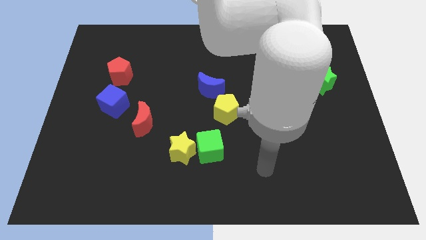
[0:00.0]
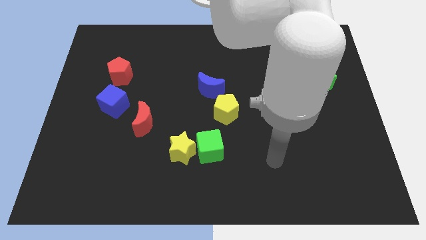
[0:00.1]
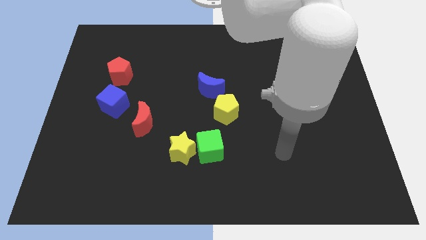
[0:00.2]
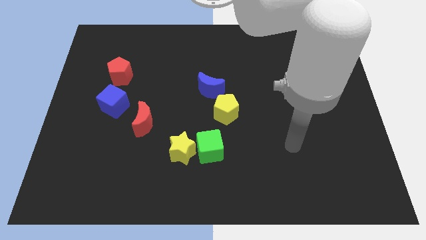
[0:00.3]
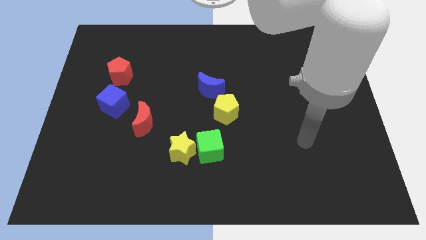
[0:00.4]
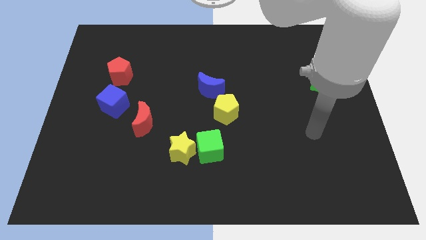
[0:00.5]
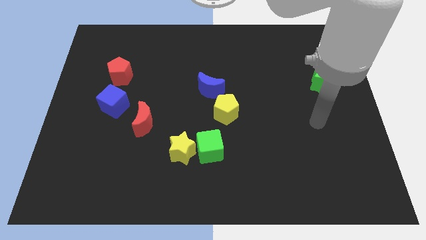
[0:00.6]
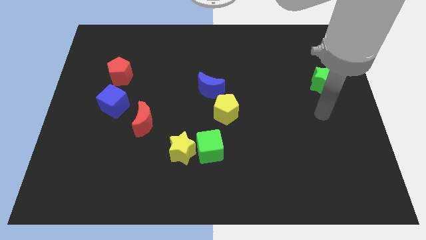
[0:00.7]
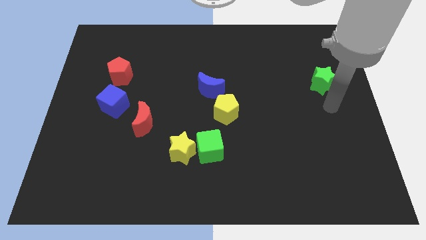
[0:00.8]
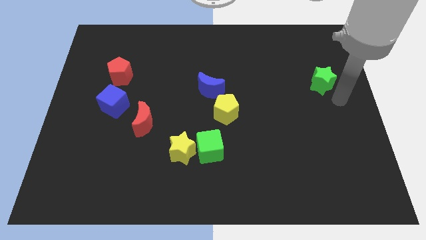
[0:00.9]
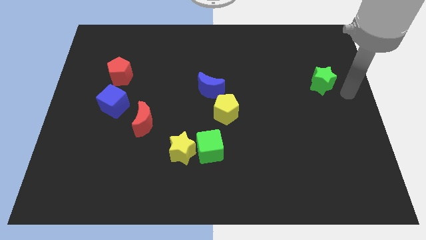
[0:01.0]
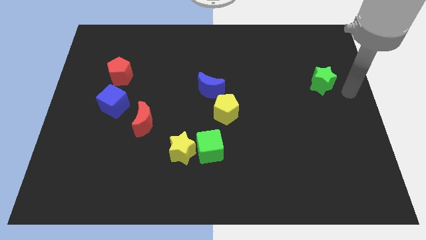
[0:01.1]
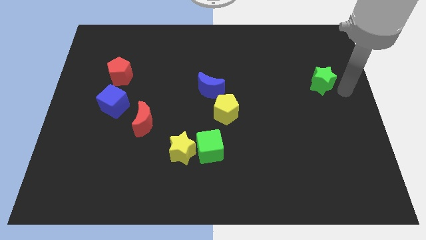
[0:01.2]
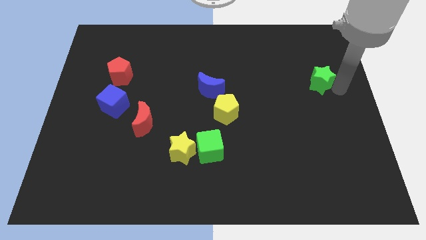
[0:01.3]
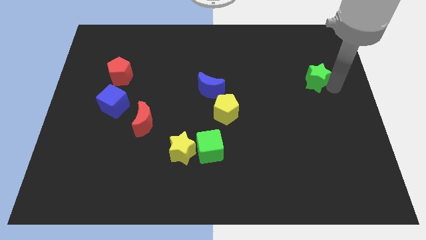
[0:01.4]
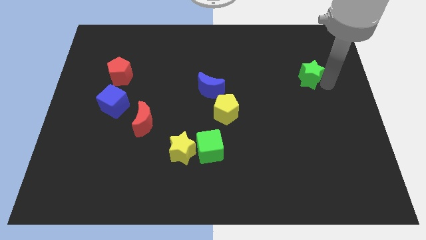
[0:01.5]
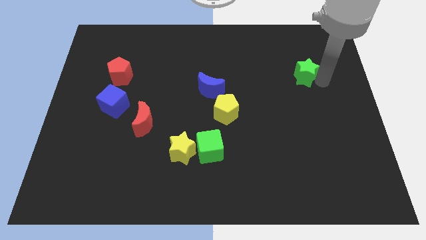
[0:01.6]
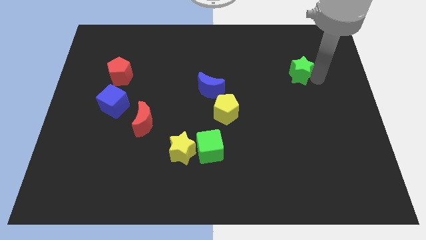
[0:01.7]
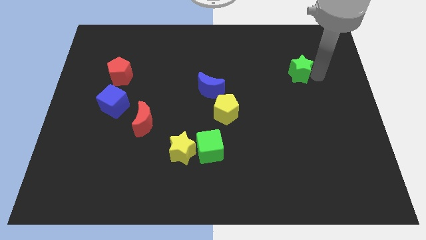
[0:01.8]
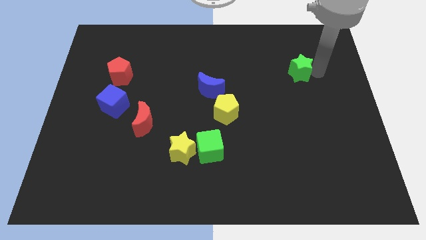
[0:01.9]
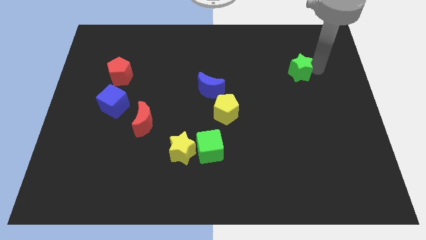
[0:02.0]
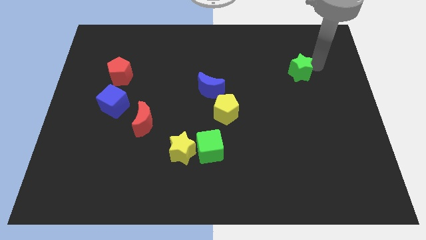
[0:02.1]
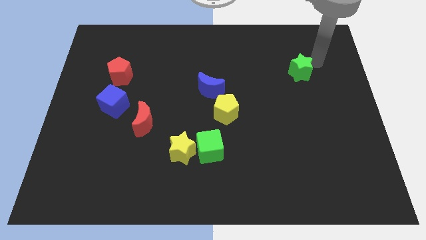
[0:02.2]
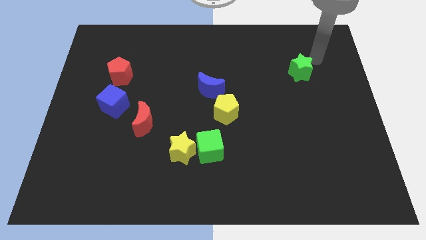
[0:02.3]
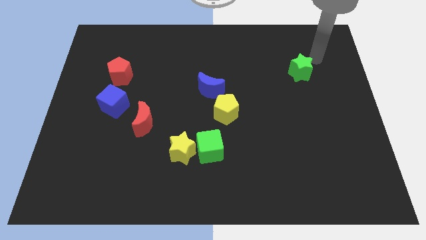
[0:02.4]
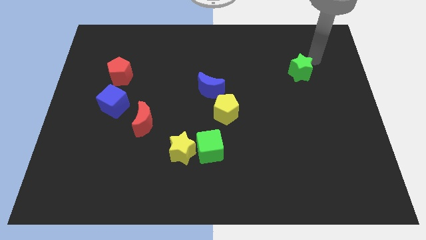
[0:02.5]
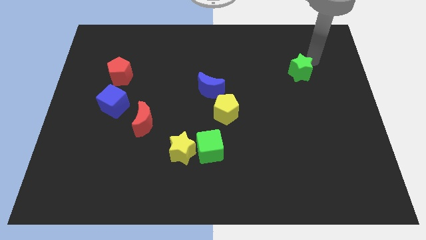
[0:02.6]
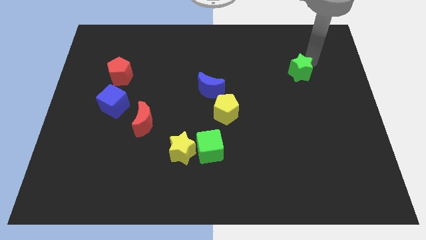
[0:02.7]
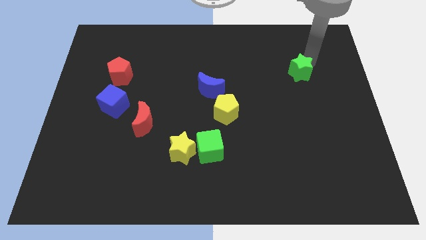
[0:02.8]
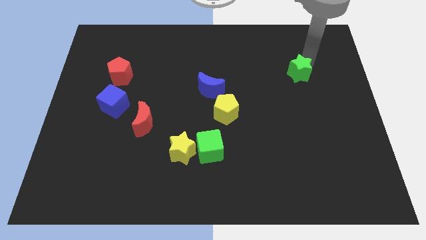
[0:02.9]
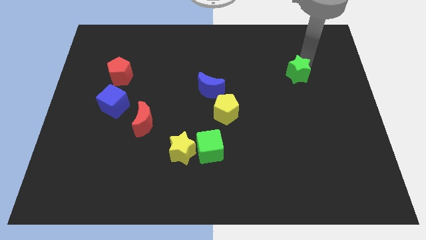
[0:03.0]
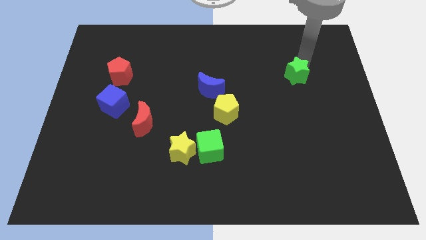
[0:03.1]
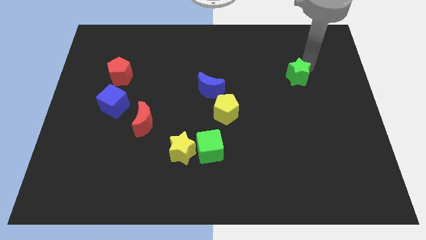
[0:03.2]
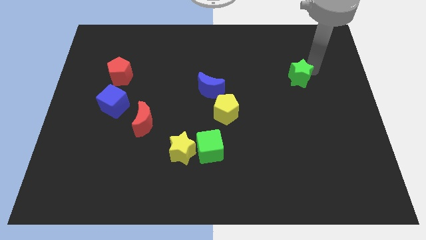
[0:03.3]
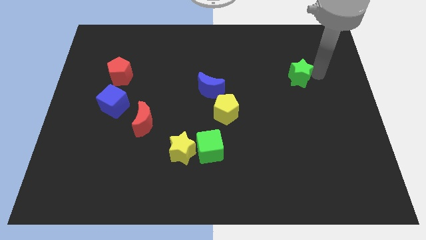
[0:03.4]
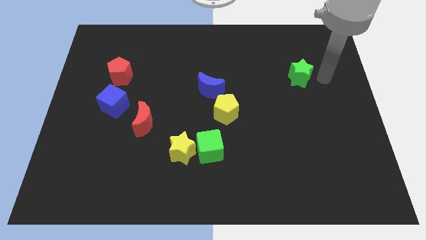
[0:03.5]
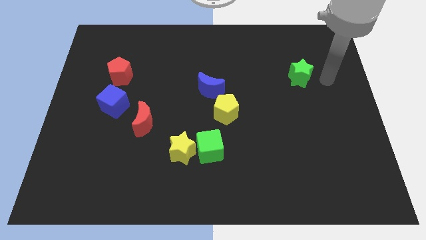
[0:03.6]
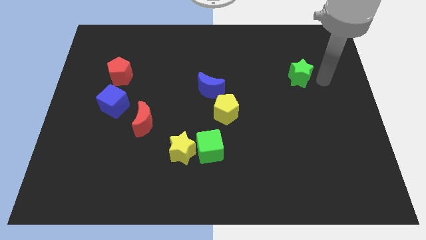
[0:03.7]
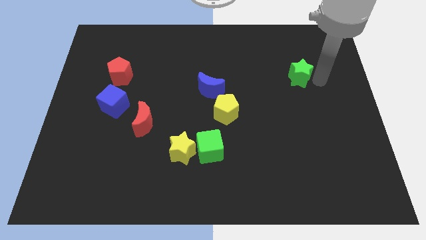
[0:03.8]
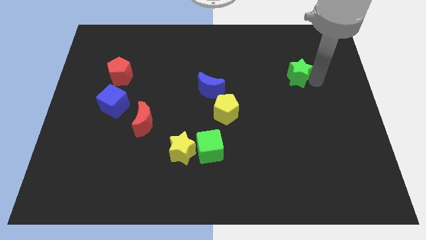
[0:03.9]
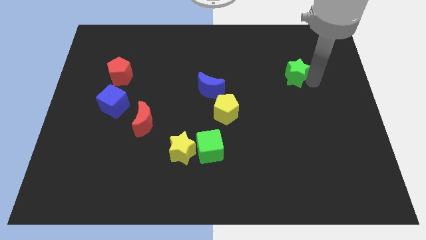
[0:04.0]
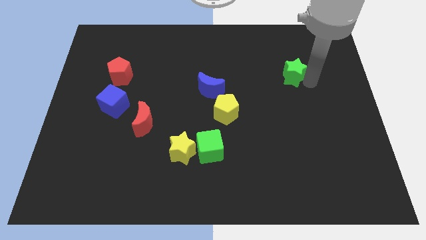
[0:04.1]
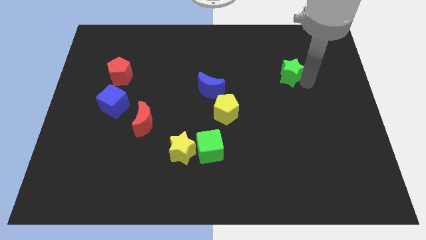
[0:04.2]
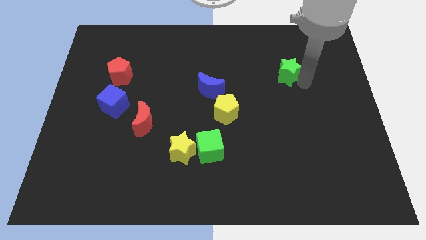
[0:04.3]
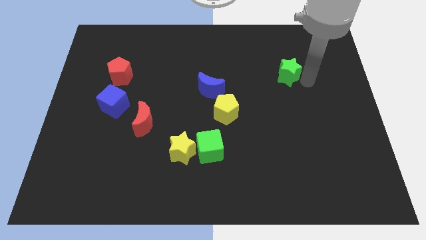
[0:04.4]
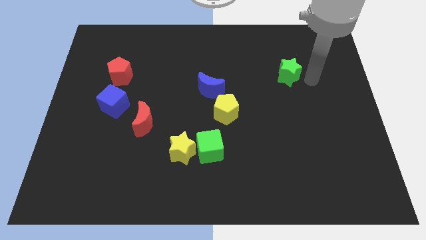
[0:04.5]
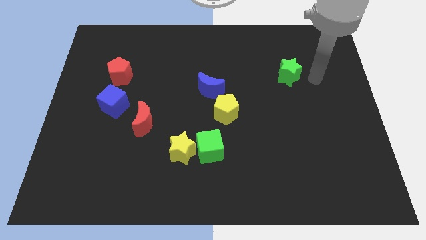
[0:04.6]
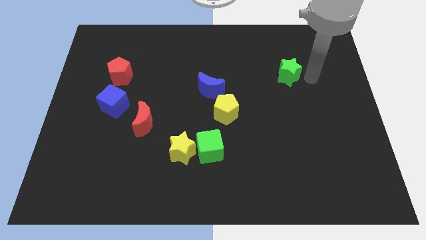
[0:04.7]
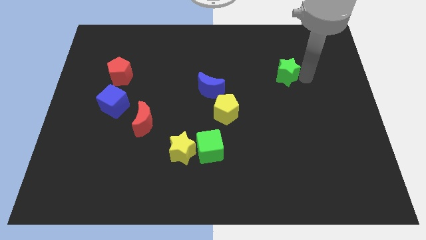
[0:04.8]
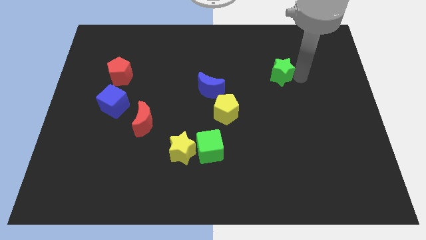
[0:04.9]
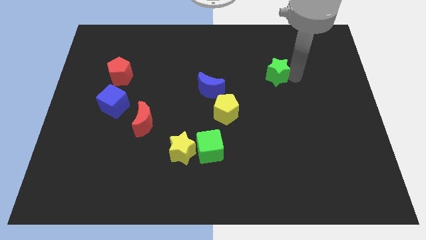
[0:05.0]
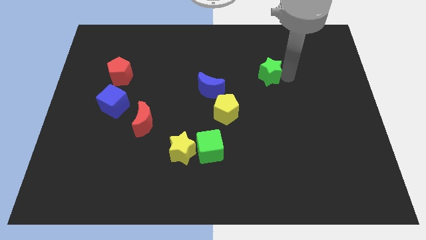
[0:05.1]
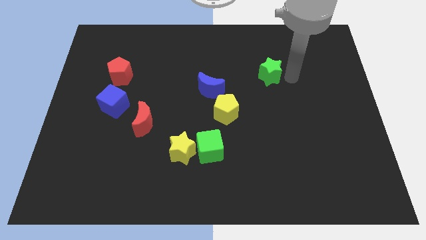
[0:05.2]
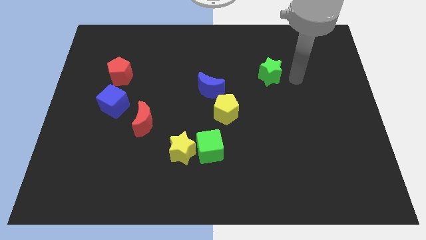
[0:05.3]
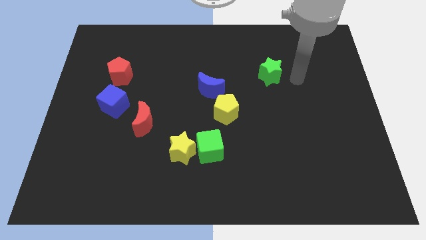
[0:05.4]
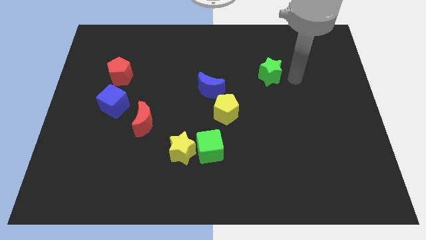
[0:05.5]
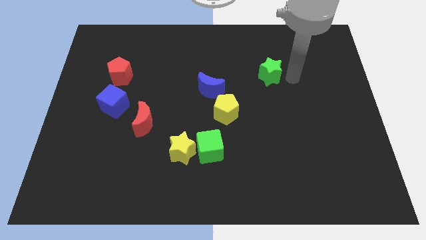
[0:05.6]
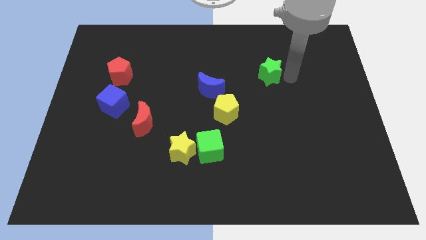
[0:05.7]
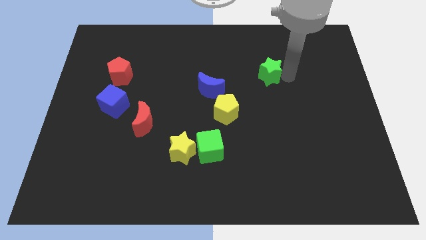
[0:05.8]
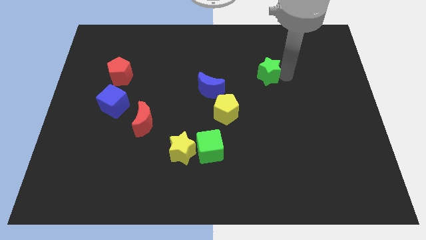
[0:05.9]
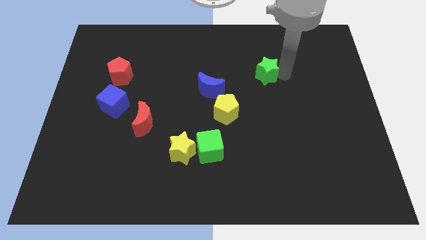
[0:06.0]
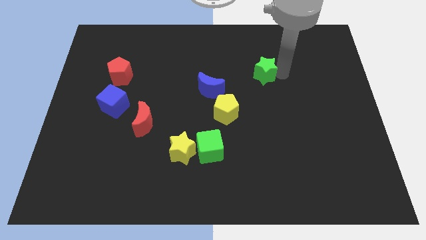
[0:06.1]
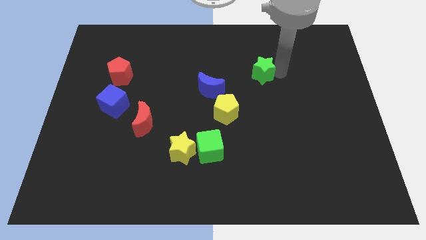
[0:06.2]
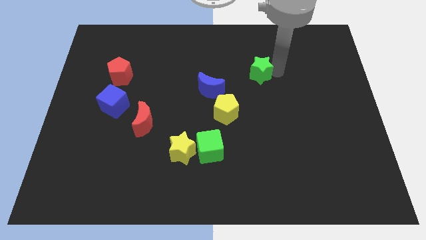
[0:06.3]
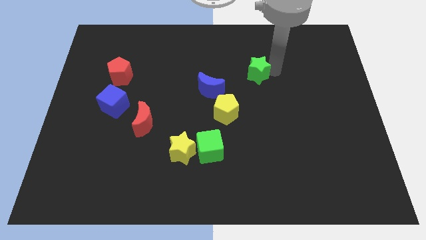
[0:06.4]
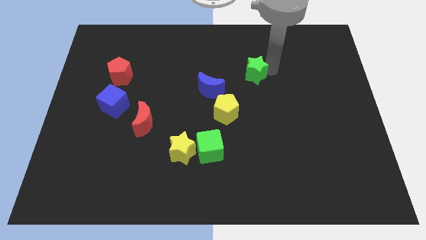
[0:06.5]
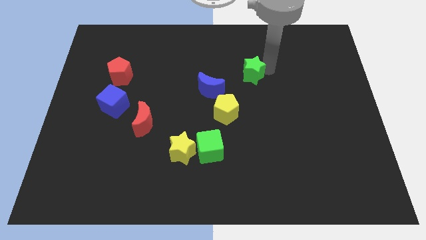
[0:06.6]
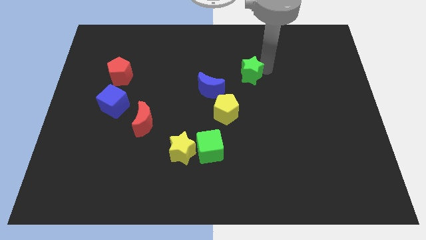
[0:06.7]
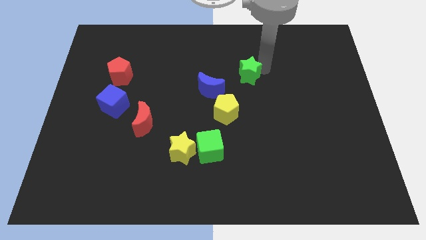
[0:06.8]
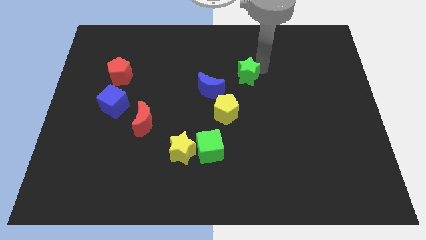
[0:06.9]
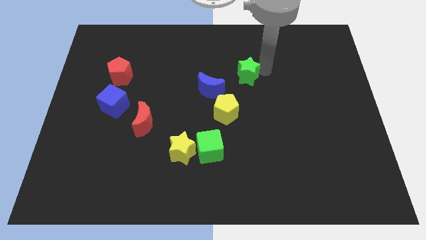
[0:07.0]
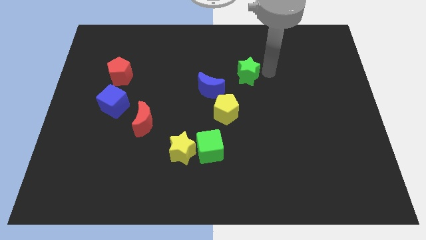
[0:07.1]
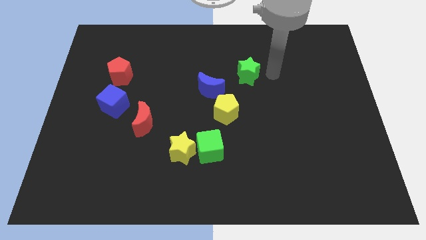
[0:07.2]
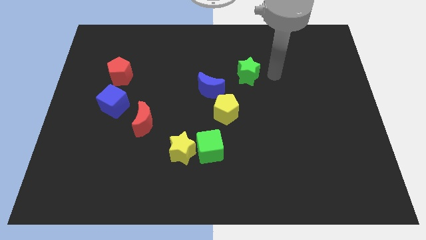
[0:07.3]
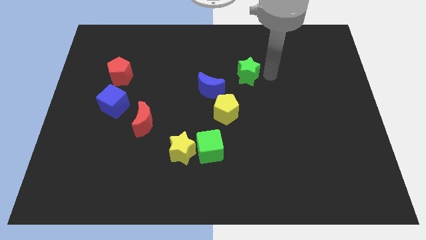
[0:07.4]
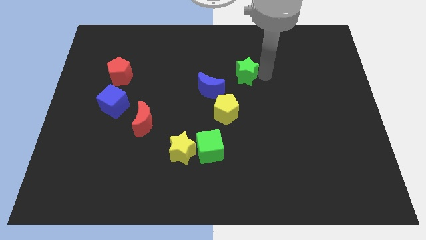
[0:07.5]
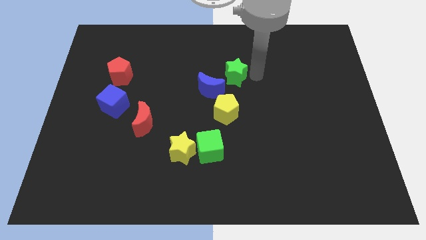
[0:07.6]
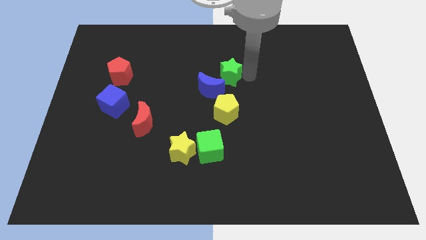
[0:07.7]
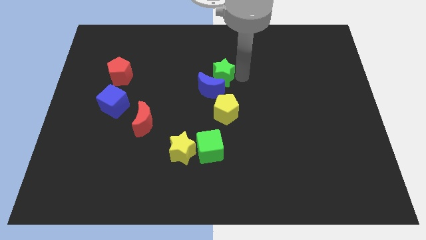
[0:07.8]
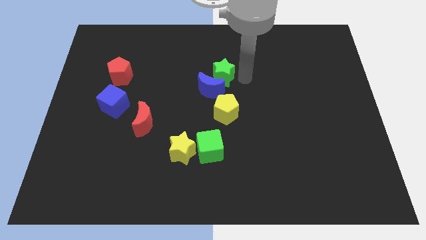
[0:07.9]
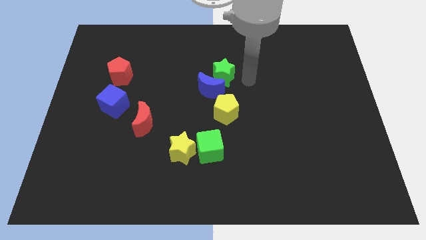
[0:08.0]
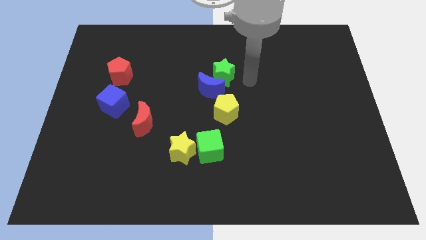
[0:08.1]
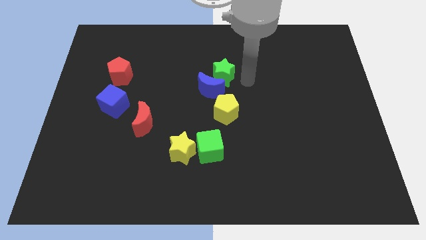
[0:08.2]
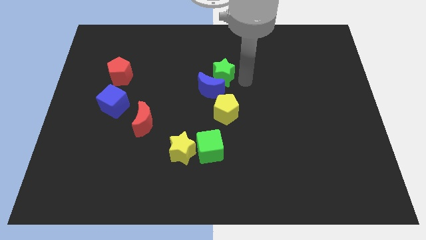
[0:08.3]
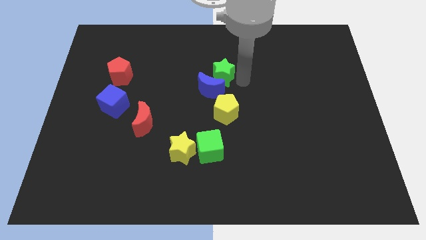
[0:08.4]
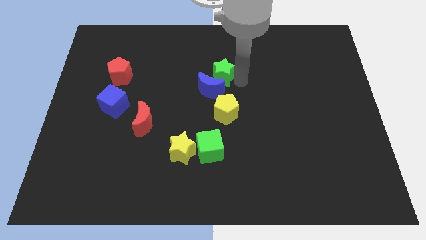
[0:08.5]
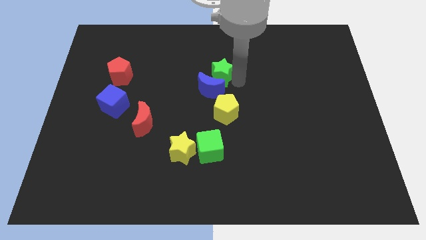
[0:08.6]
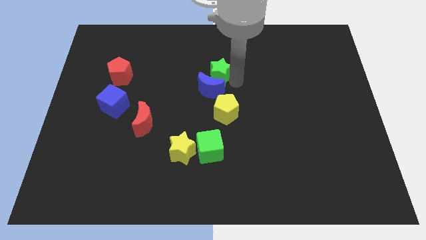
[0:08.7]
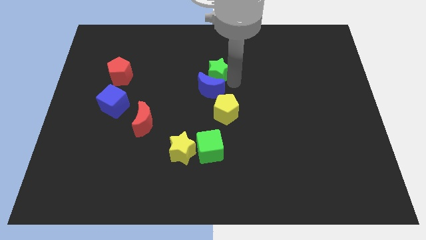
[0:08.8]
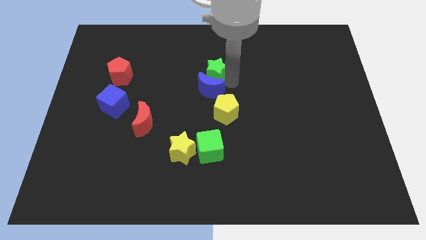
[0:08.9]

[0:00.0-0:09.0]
move the green star diagonally up and to the left of the blue moon
